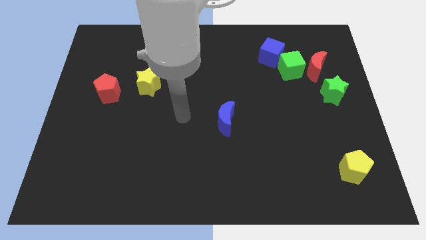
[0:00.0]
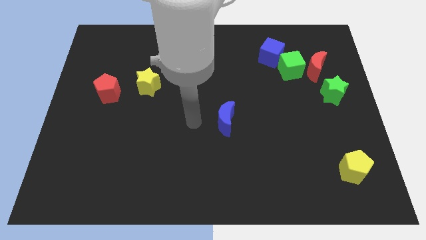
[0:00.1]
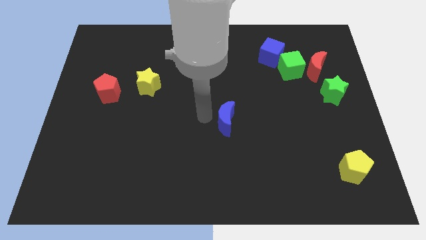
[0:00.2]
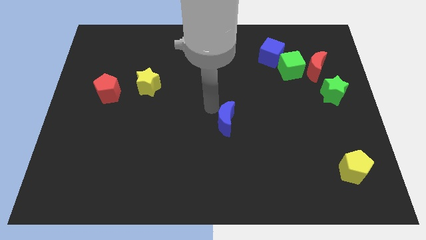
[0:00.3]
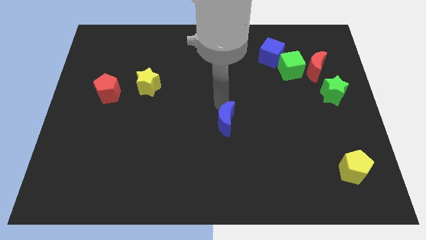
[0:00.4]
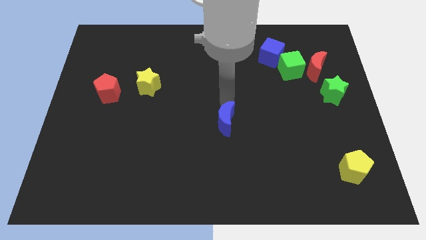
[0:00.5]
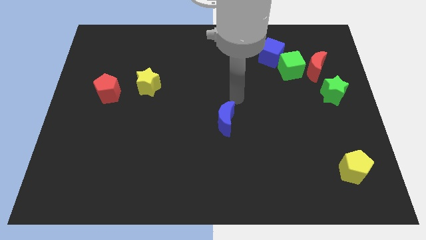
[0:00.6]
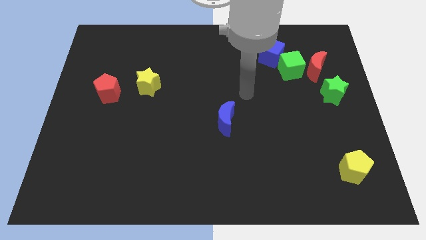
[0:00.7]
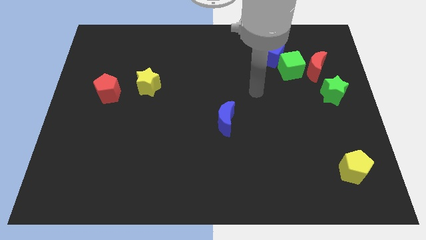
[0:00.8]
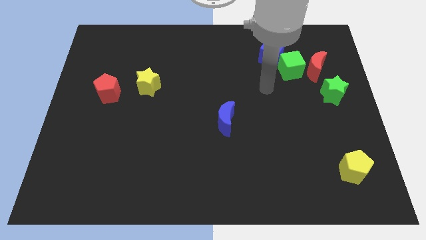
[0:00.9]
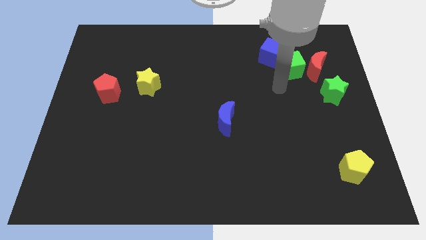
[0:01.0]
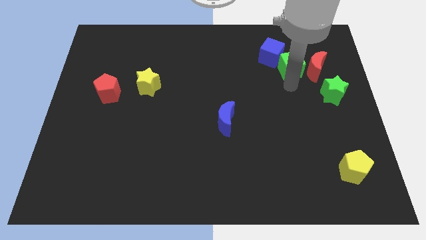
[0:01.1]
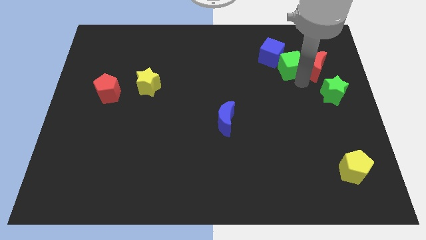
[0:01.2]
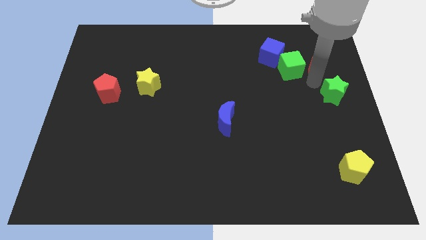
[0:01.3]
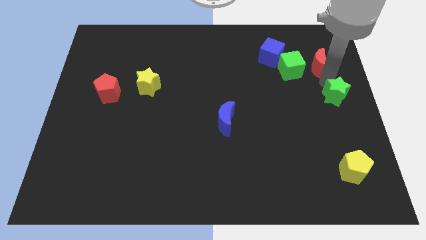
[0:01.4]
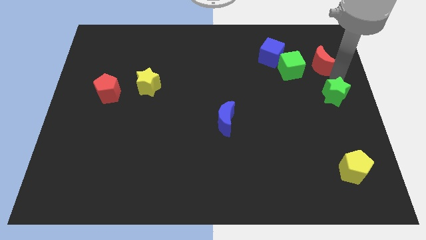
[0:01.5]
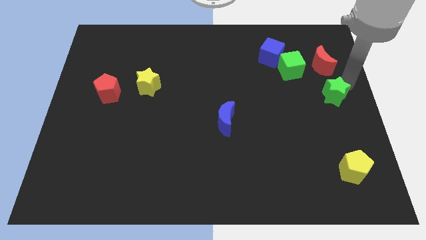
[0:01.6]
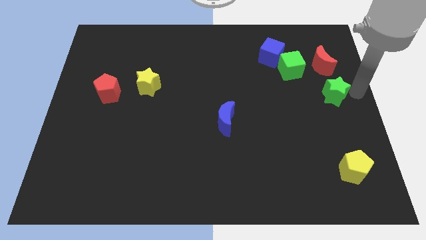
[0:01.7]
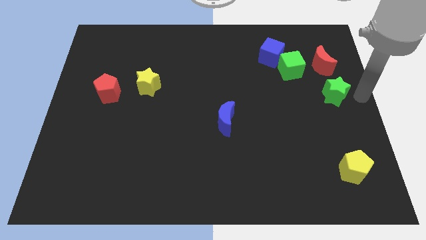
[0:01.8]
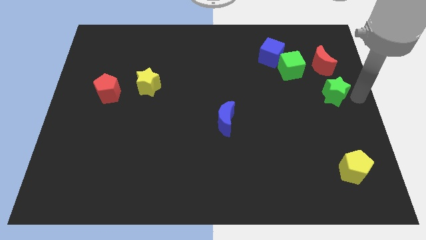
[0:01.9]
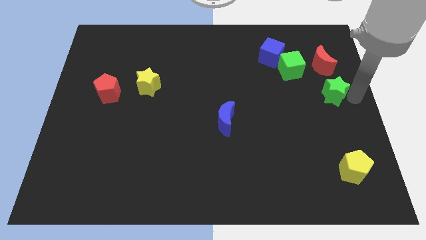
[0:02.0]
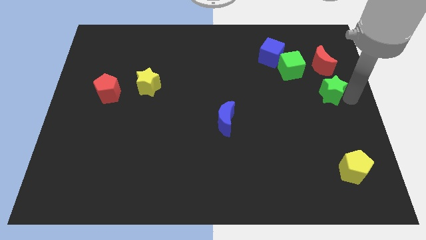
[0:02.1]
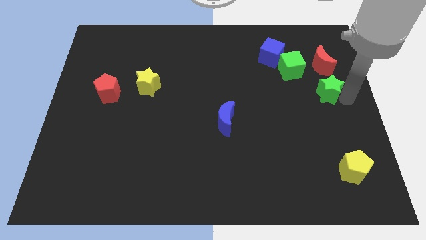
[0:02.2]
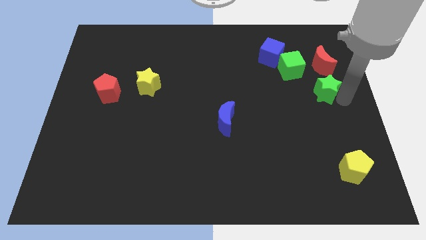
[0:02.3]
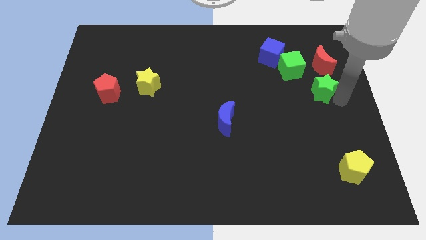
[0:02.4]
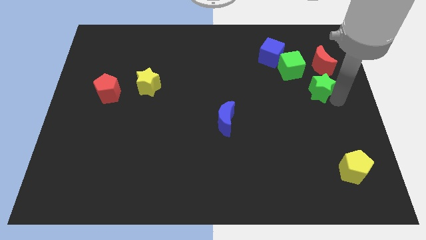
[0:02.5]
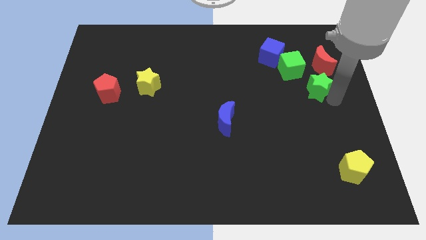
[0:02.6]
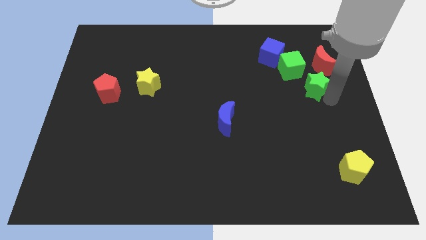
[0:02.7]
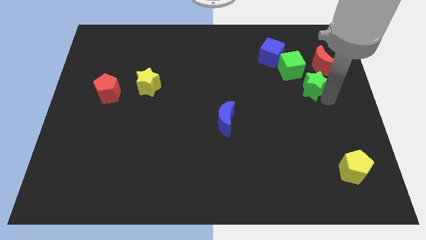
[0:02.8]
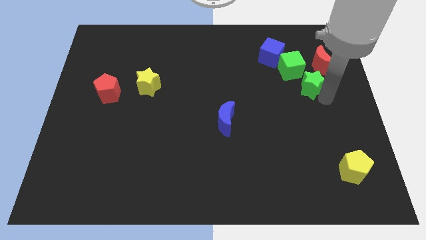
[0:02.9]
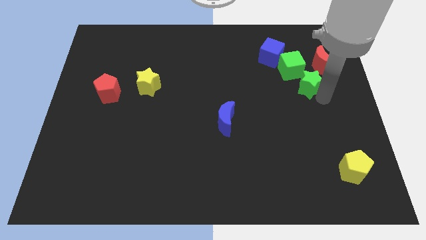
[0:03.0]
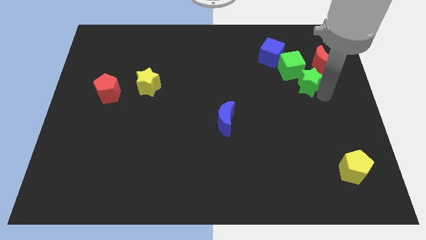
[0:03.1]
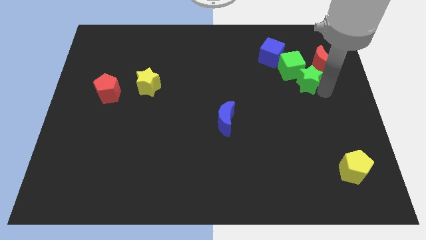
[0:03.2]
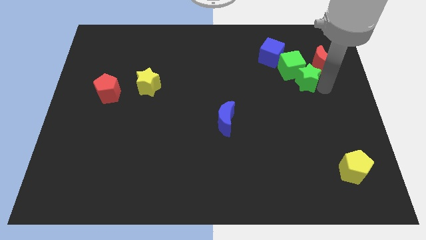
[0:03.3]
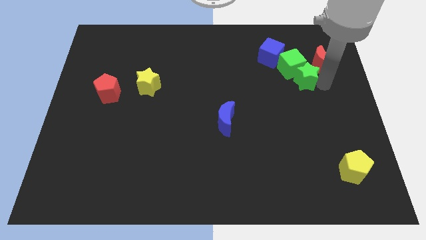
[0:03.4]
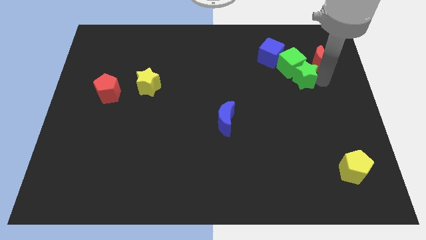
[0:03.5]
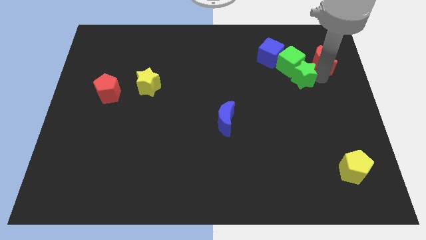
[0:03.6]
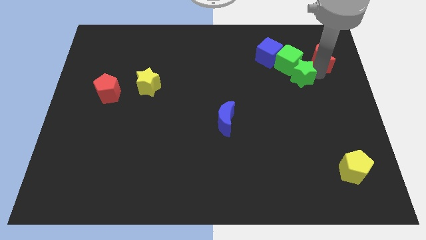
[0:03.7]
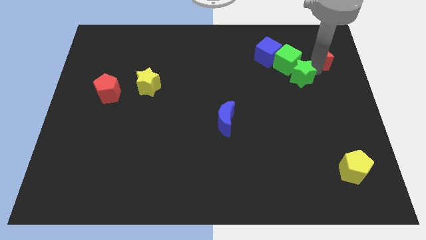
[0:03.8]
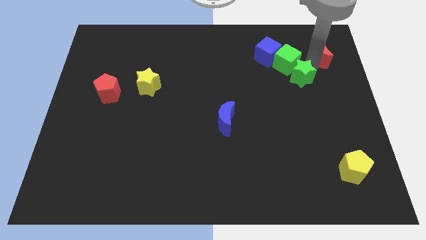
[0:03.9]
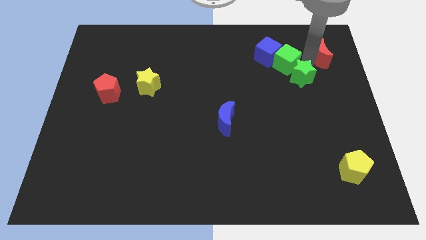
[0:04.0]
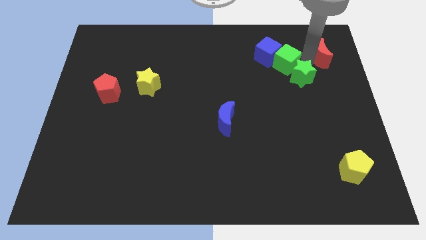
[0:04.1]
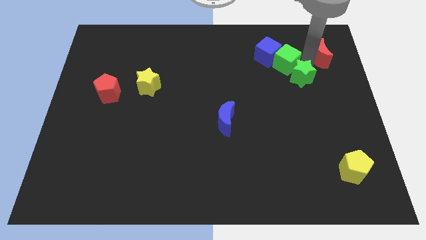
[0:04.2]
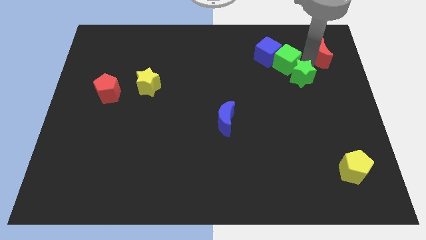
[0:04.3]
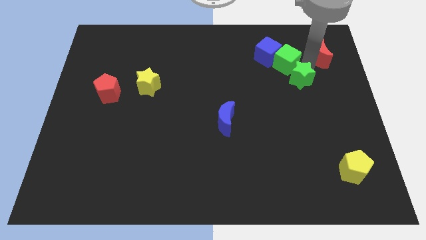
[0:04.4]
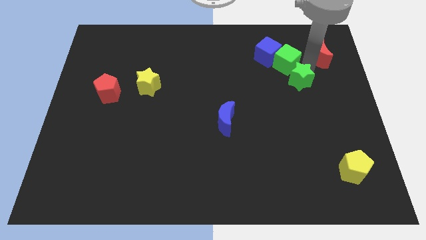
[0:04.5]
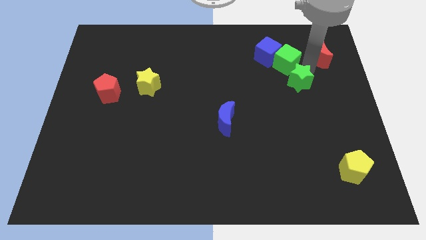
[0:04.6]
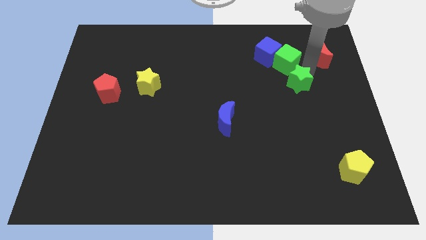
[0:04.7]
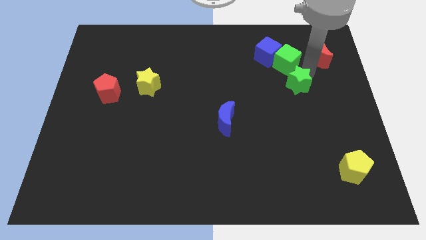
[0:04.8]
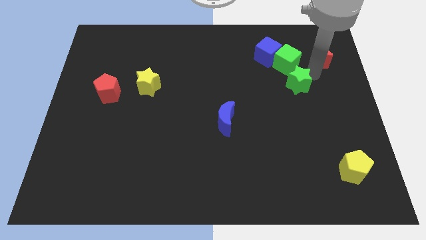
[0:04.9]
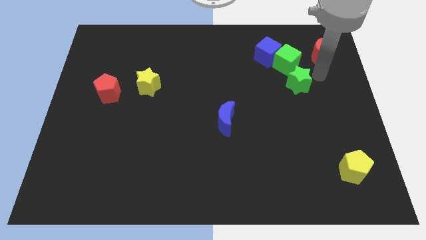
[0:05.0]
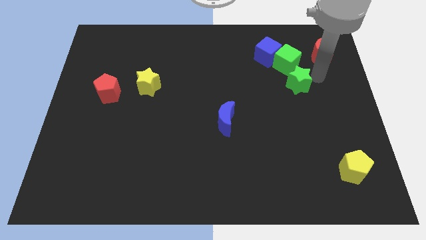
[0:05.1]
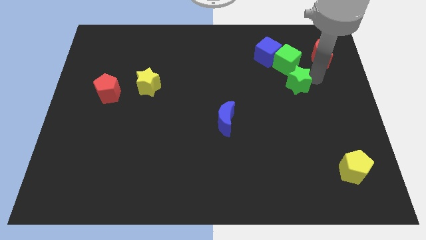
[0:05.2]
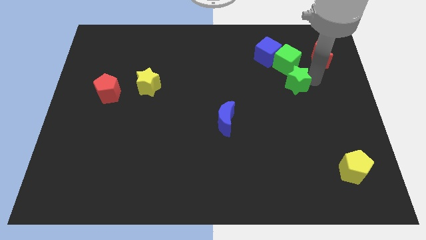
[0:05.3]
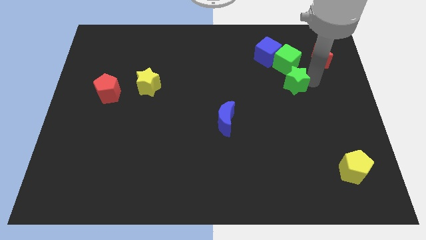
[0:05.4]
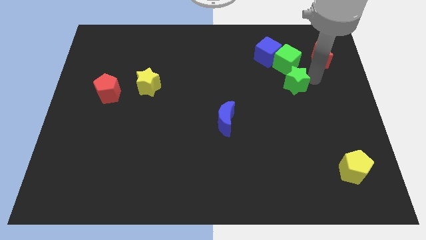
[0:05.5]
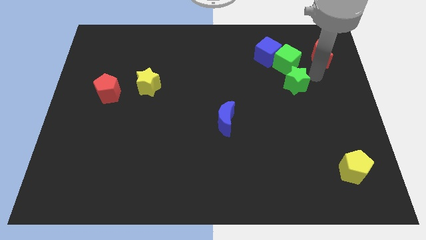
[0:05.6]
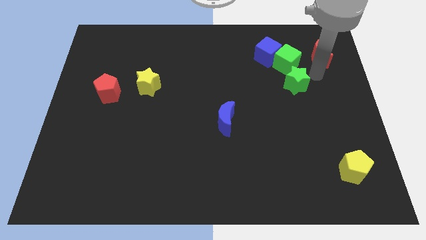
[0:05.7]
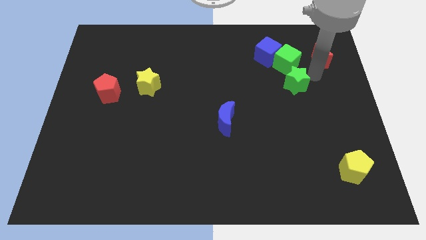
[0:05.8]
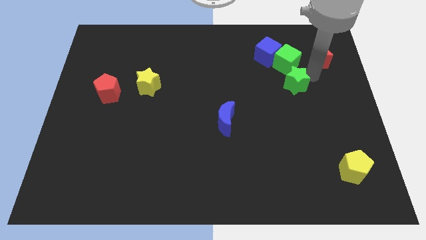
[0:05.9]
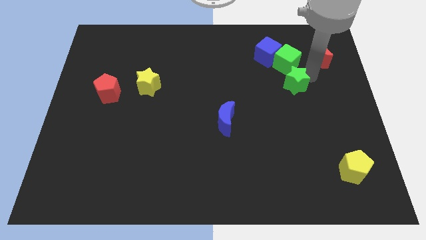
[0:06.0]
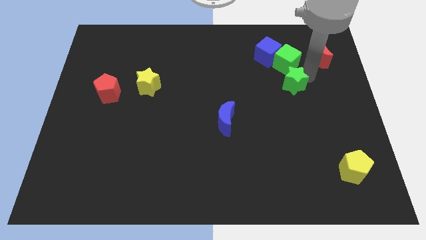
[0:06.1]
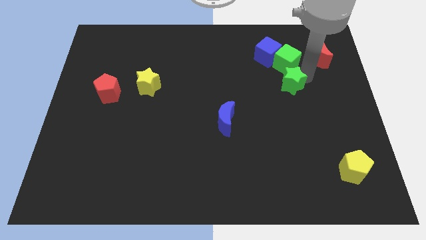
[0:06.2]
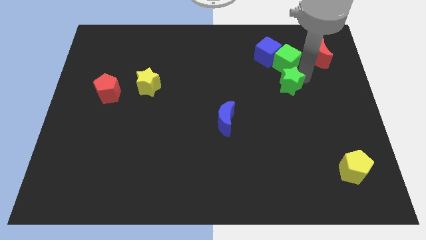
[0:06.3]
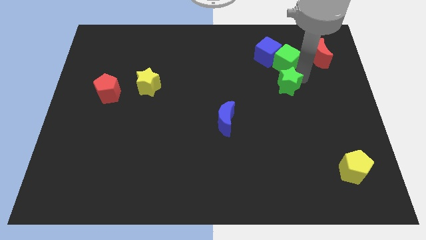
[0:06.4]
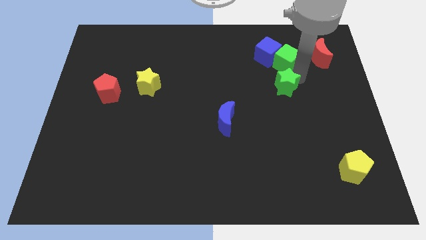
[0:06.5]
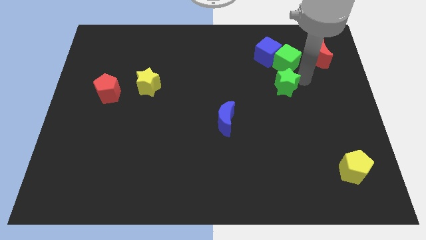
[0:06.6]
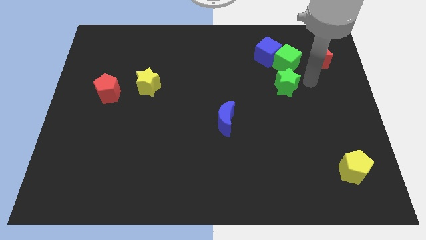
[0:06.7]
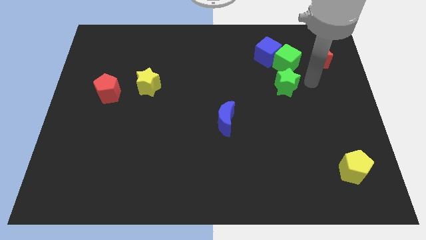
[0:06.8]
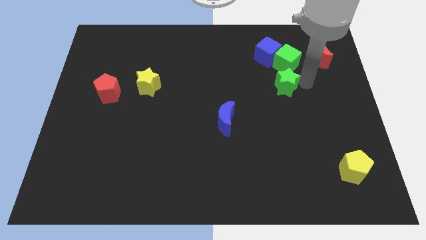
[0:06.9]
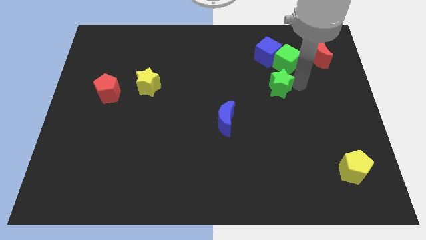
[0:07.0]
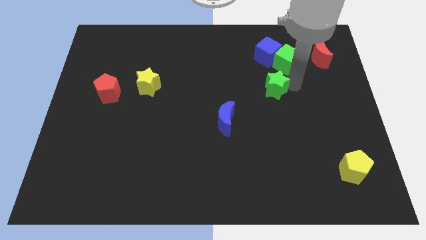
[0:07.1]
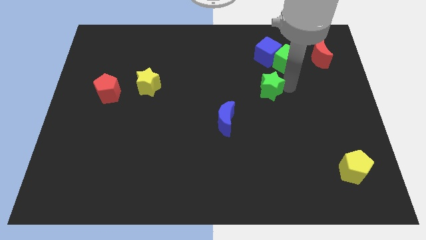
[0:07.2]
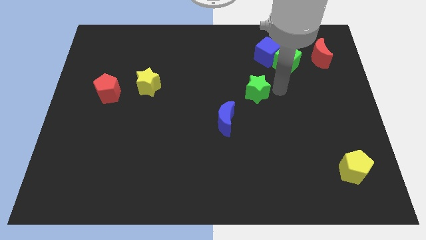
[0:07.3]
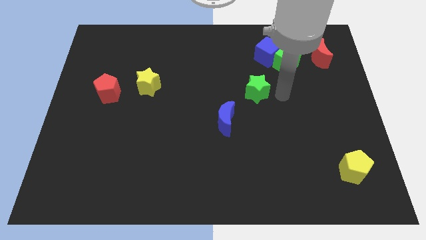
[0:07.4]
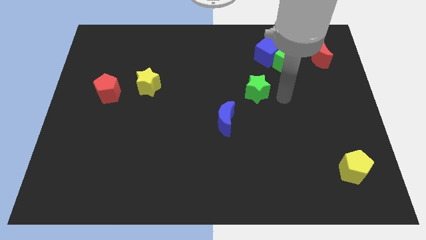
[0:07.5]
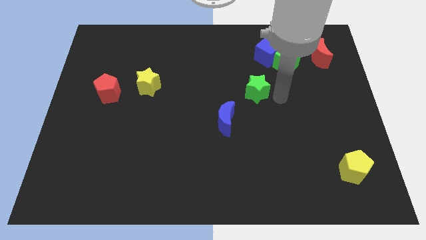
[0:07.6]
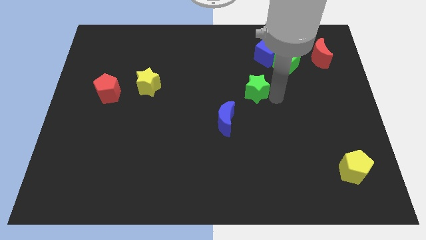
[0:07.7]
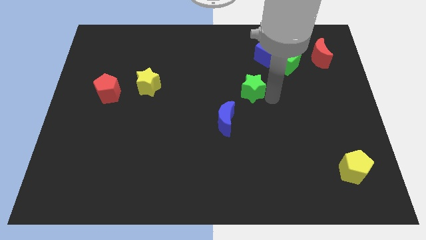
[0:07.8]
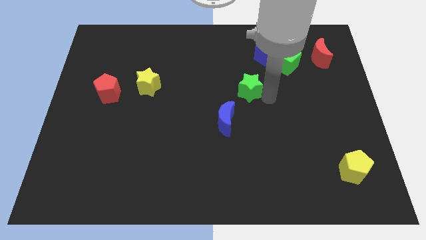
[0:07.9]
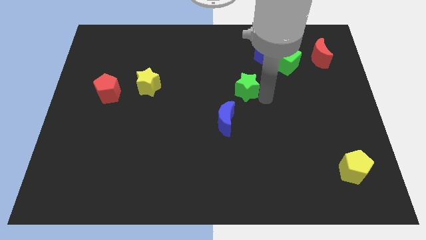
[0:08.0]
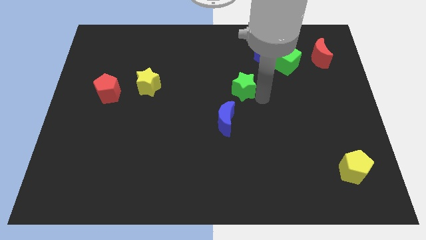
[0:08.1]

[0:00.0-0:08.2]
put the green star to the top side of the blue moon
